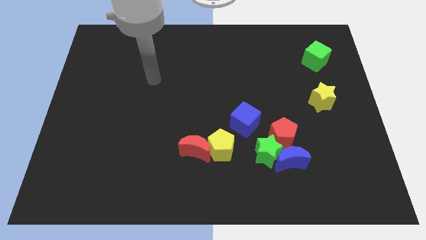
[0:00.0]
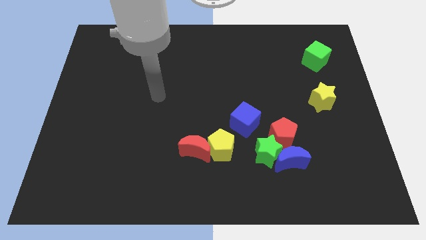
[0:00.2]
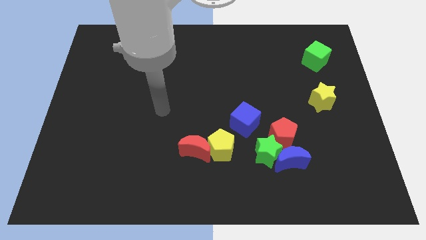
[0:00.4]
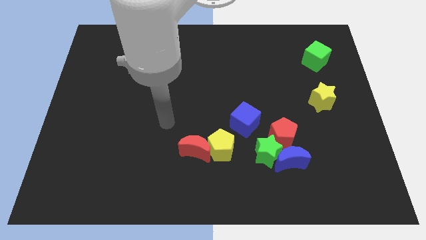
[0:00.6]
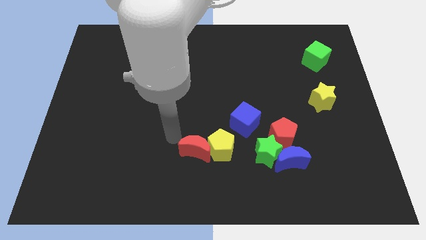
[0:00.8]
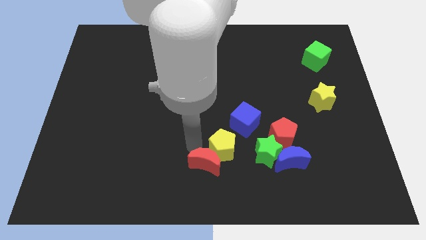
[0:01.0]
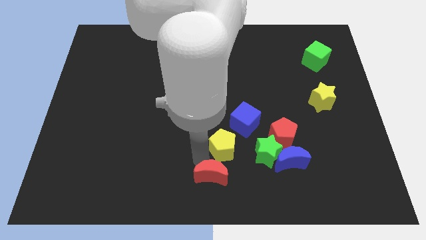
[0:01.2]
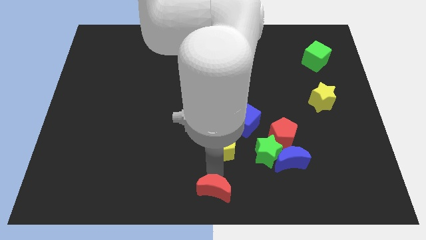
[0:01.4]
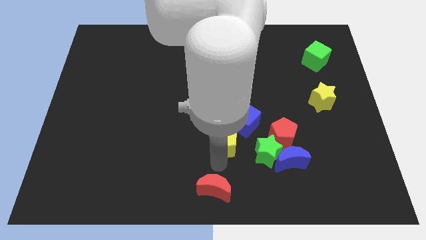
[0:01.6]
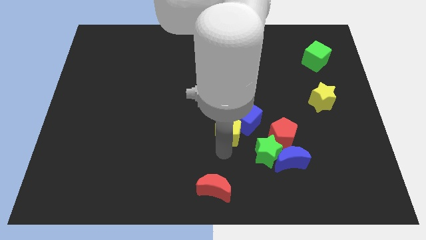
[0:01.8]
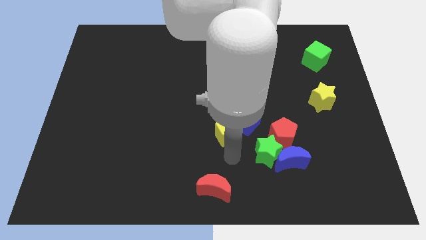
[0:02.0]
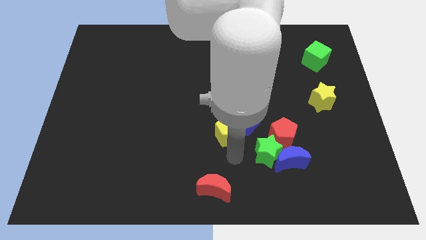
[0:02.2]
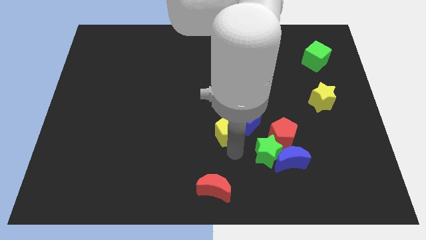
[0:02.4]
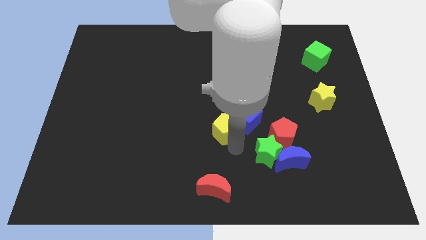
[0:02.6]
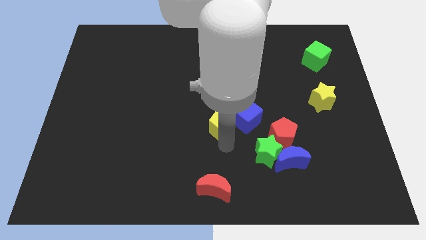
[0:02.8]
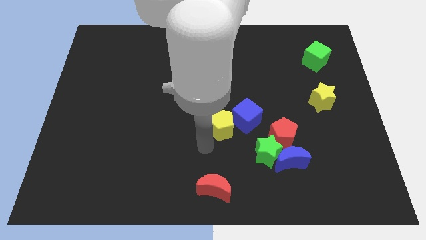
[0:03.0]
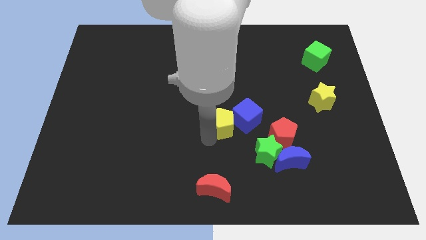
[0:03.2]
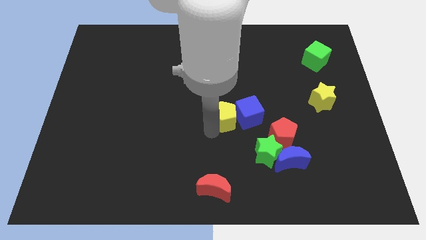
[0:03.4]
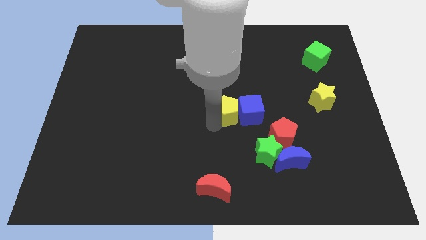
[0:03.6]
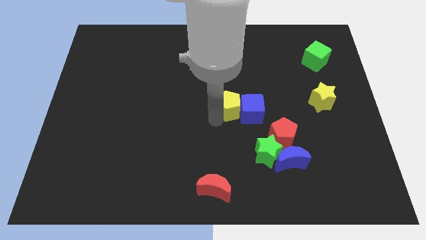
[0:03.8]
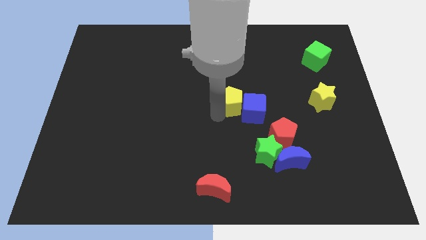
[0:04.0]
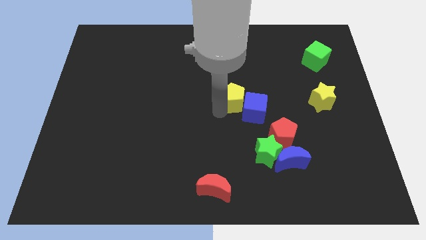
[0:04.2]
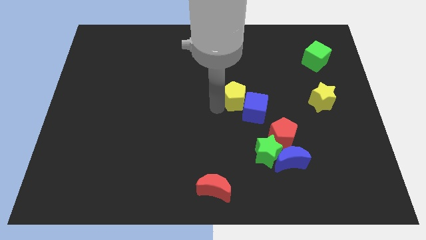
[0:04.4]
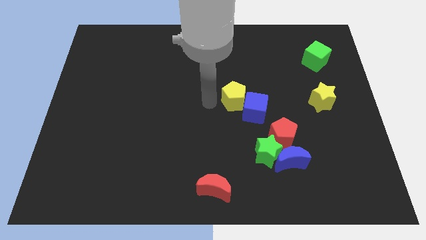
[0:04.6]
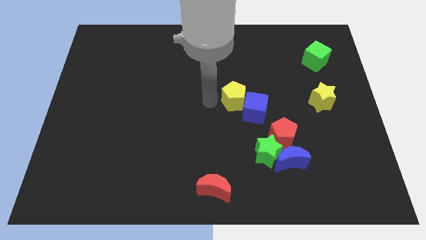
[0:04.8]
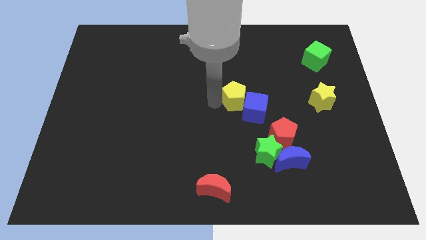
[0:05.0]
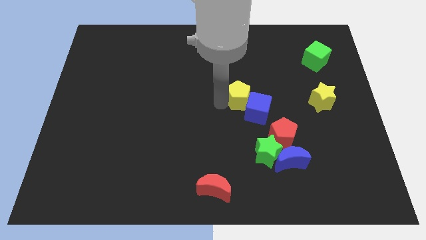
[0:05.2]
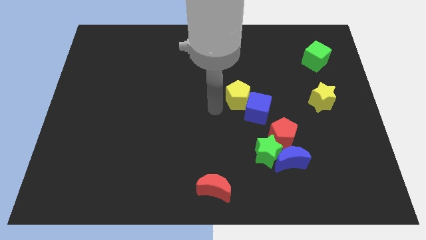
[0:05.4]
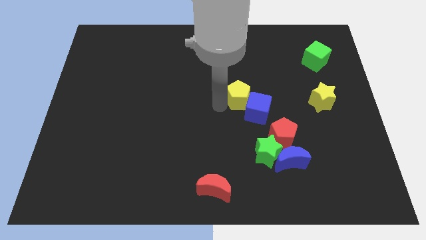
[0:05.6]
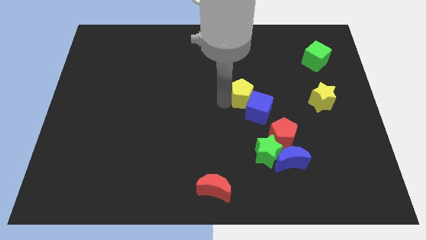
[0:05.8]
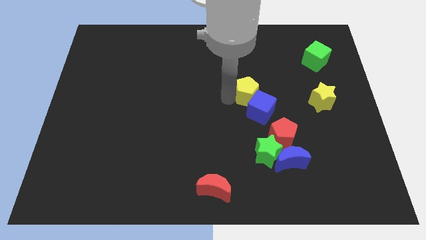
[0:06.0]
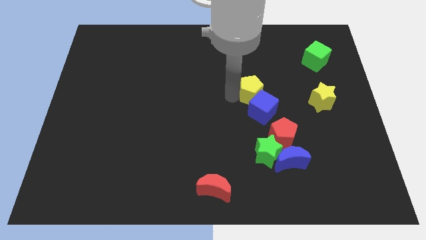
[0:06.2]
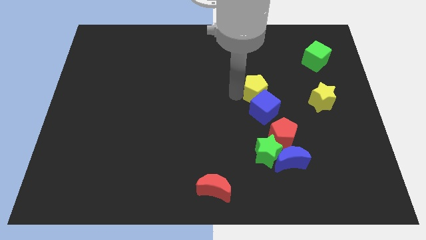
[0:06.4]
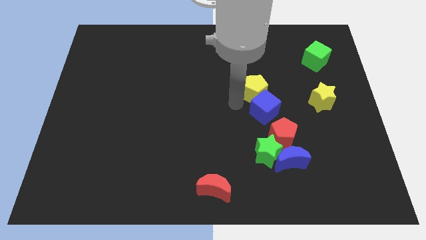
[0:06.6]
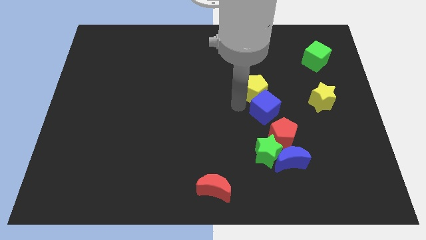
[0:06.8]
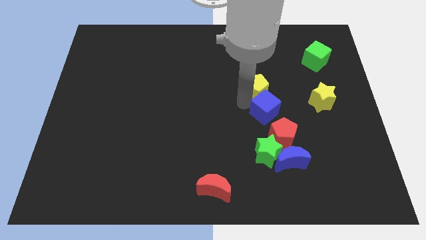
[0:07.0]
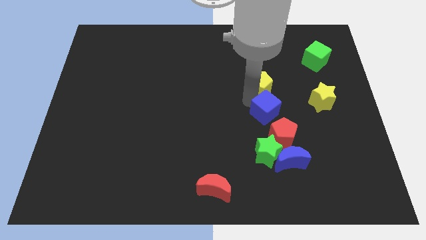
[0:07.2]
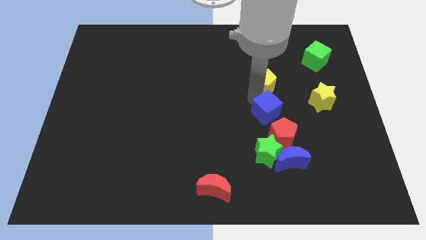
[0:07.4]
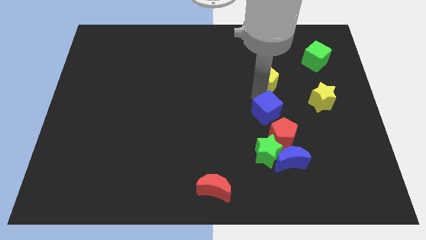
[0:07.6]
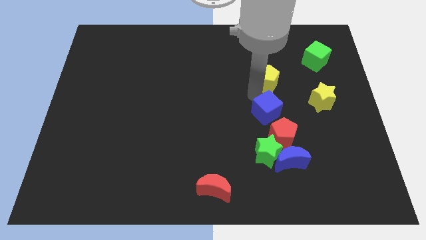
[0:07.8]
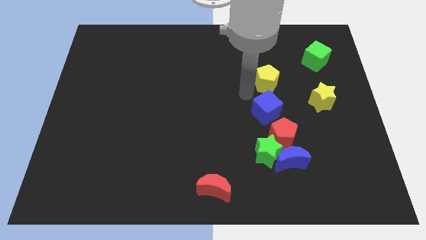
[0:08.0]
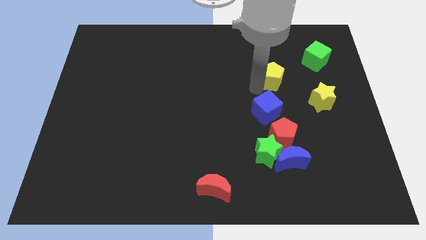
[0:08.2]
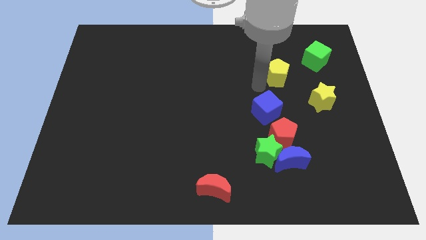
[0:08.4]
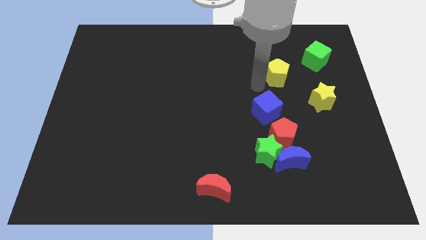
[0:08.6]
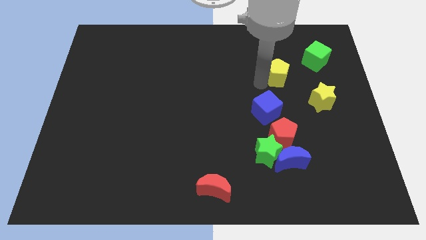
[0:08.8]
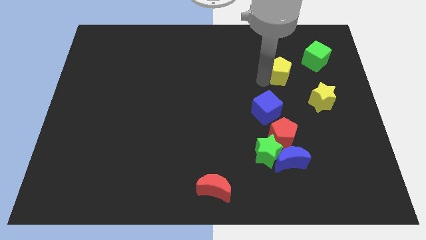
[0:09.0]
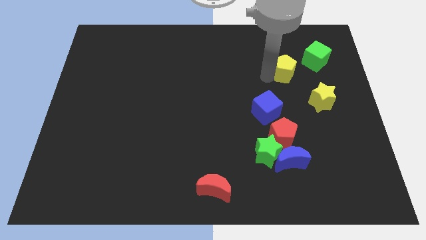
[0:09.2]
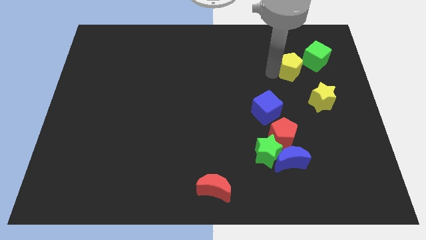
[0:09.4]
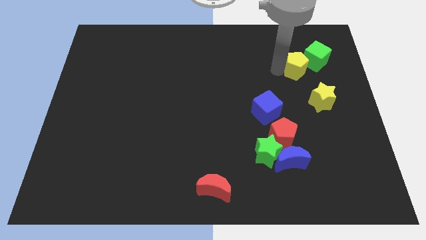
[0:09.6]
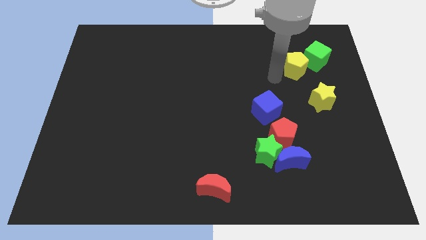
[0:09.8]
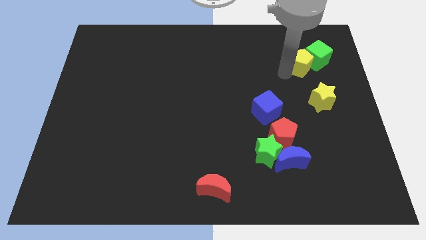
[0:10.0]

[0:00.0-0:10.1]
move the yellow pentagon next to the green cube

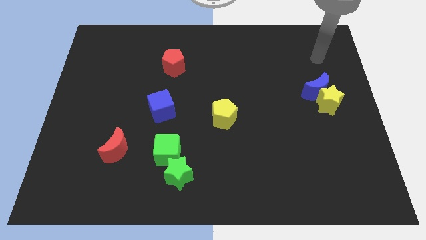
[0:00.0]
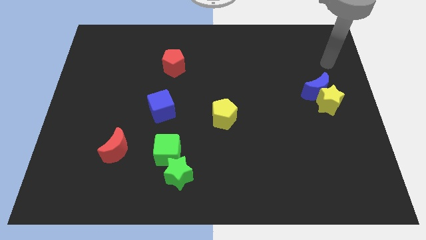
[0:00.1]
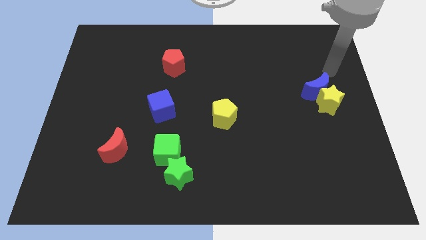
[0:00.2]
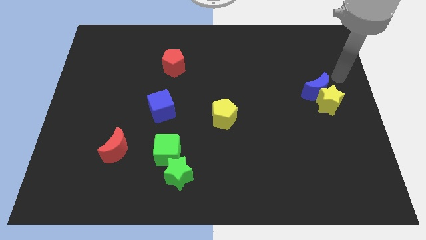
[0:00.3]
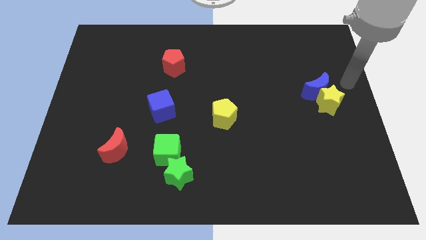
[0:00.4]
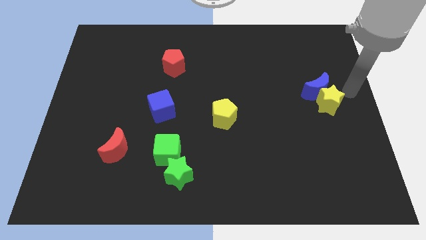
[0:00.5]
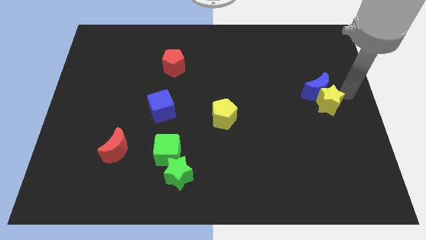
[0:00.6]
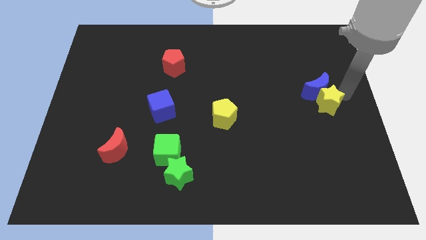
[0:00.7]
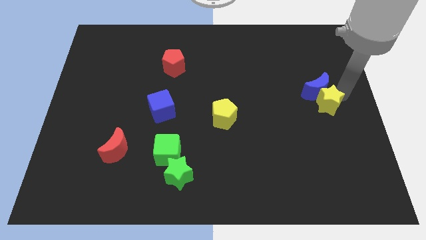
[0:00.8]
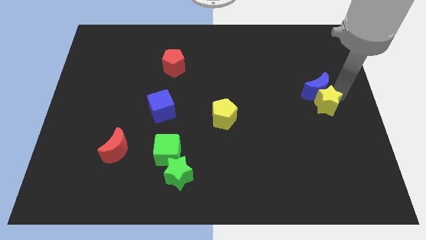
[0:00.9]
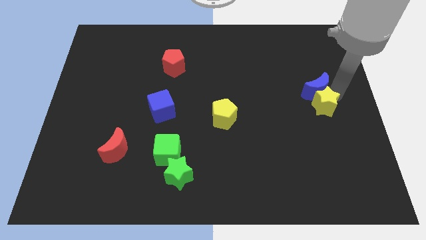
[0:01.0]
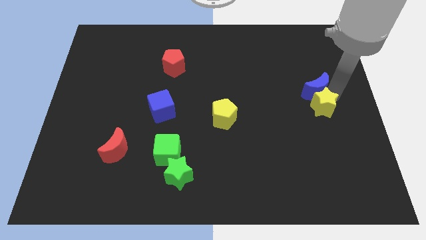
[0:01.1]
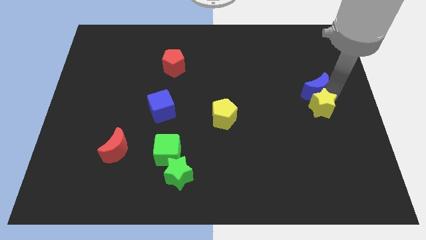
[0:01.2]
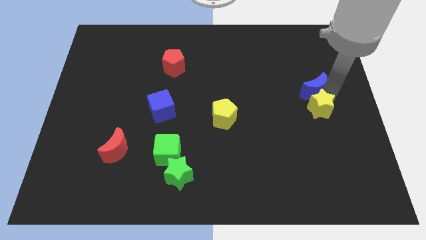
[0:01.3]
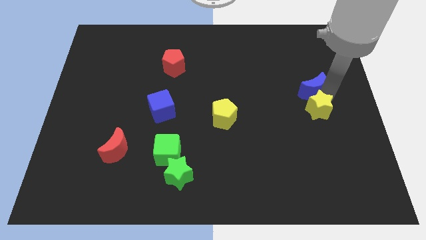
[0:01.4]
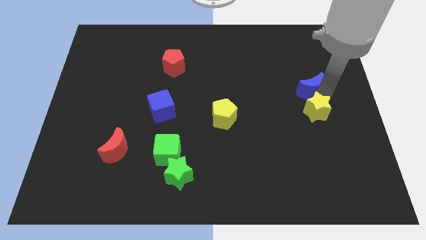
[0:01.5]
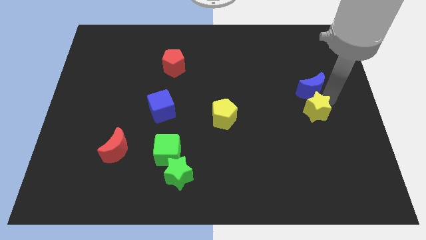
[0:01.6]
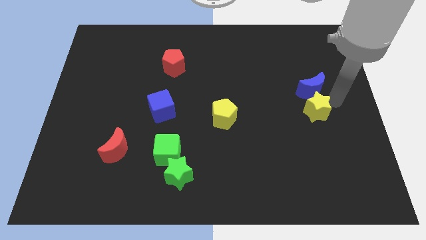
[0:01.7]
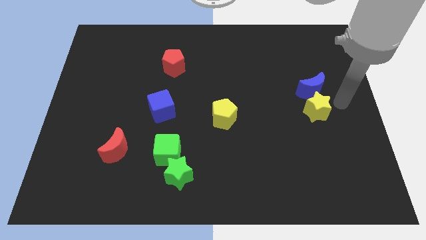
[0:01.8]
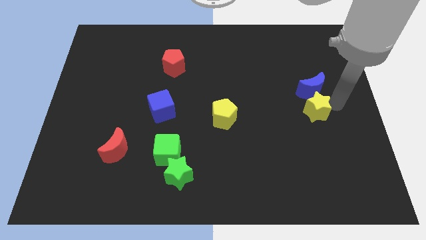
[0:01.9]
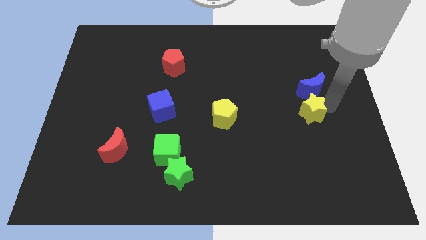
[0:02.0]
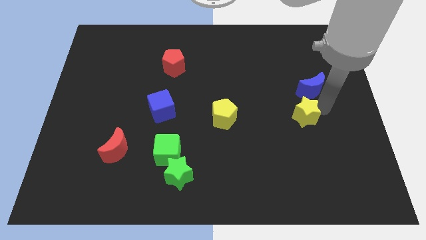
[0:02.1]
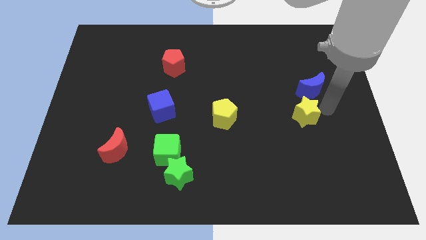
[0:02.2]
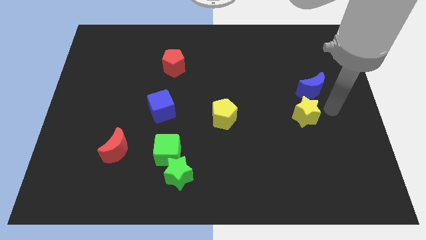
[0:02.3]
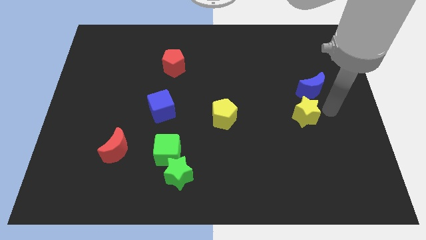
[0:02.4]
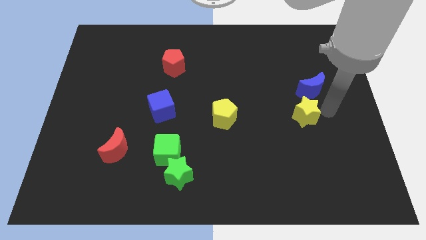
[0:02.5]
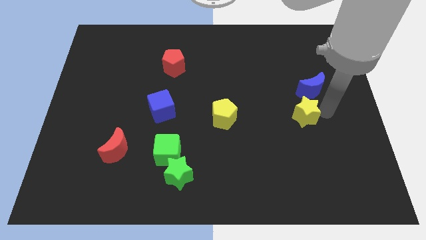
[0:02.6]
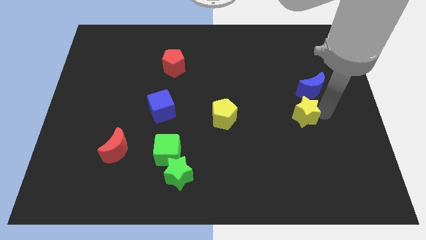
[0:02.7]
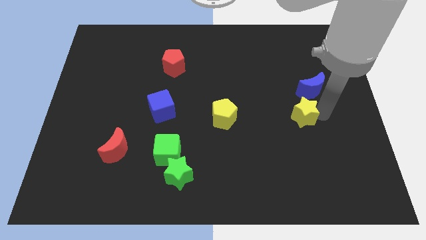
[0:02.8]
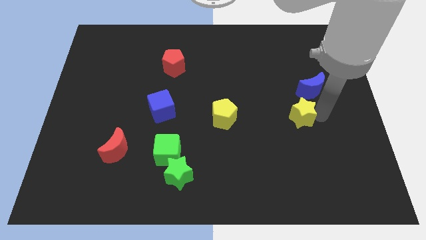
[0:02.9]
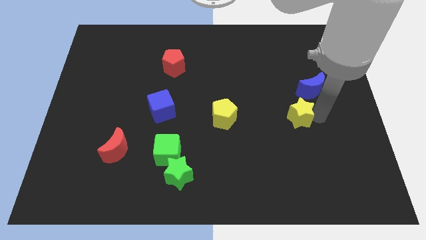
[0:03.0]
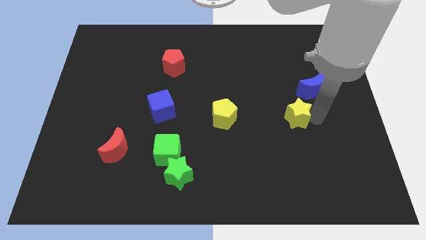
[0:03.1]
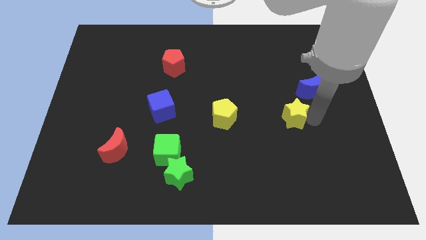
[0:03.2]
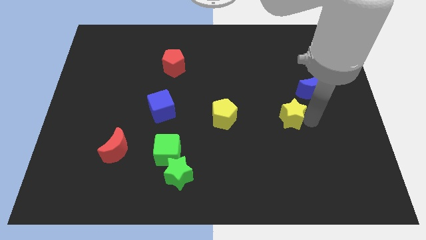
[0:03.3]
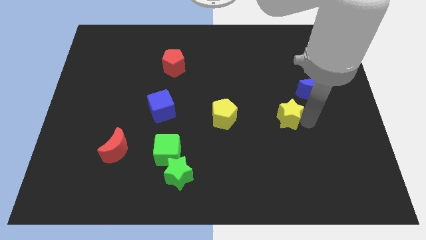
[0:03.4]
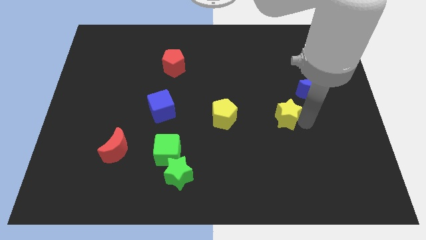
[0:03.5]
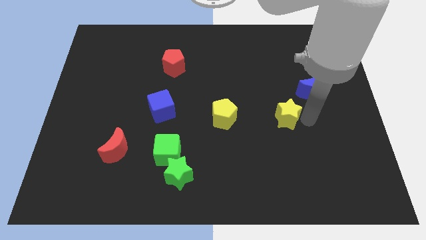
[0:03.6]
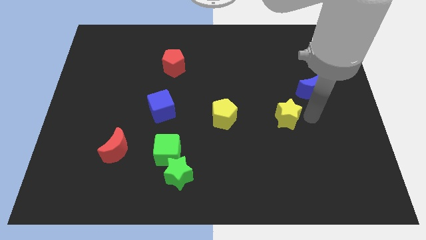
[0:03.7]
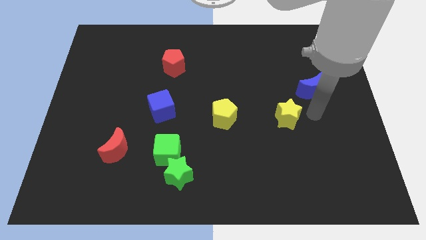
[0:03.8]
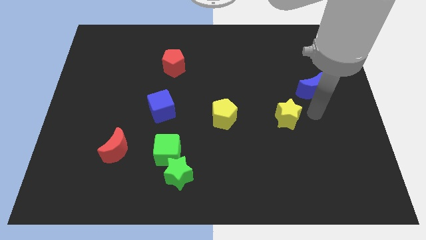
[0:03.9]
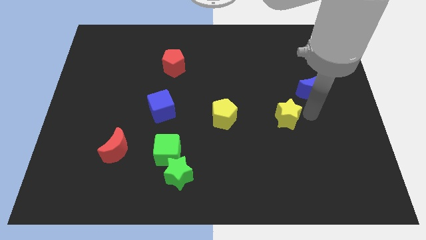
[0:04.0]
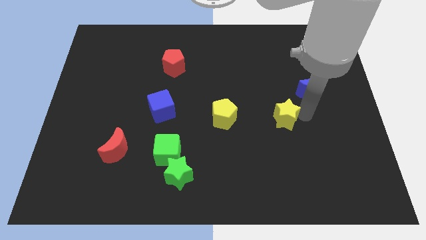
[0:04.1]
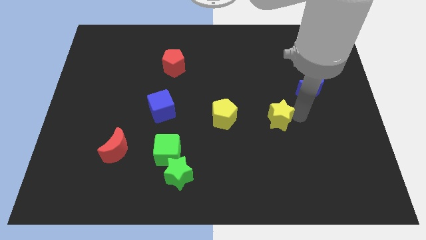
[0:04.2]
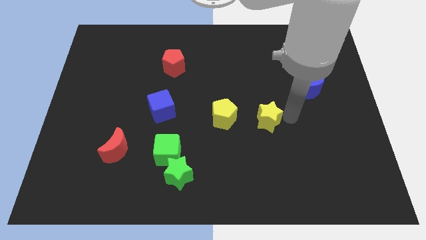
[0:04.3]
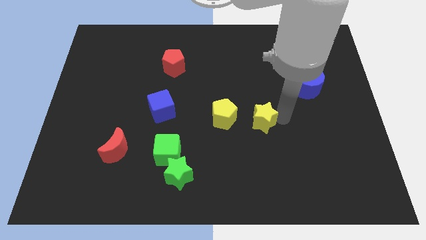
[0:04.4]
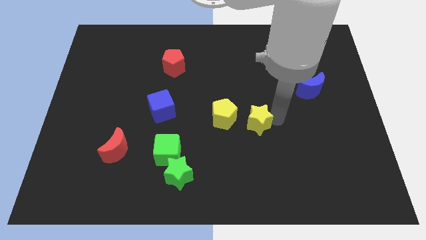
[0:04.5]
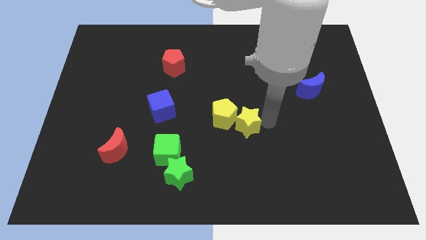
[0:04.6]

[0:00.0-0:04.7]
move the yellow star towards the yellow pentagon
